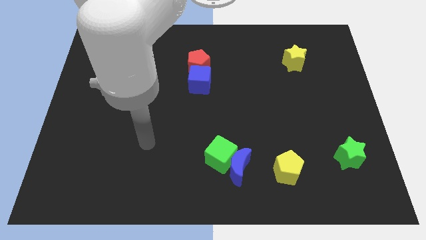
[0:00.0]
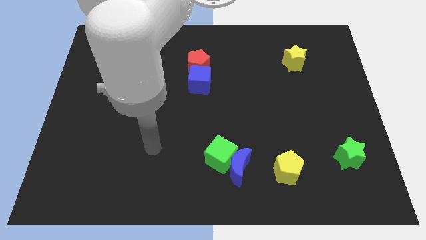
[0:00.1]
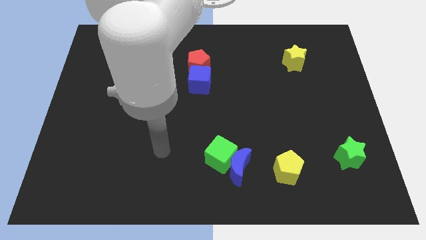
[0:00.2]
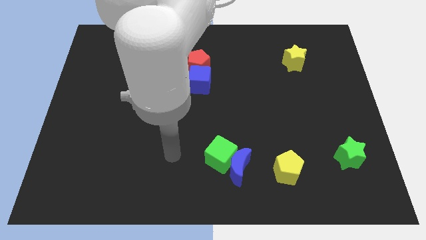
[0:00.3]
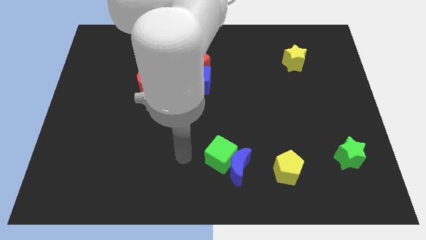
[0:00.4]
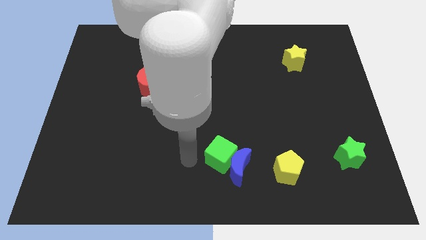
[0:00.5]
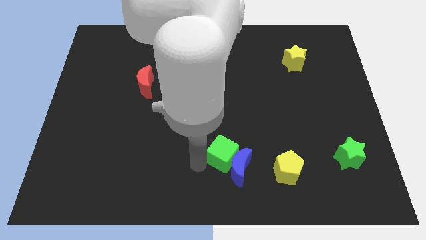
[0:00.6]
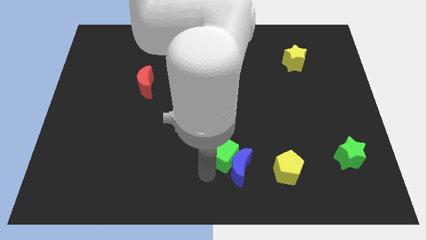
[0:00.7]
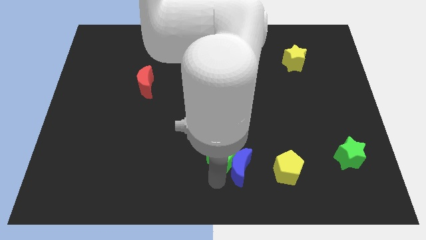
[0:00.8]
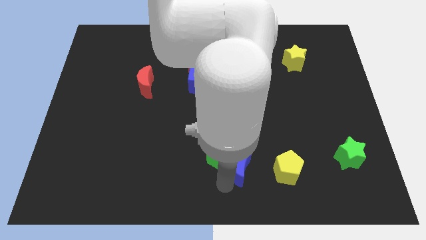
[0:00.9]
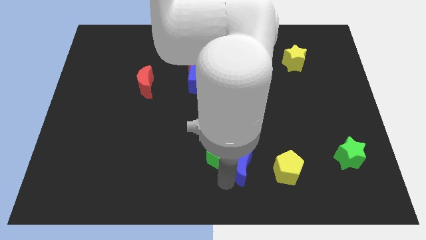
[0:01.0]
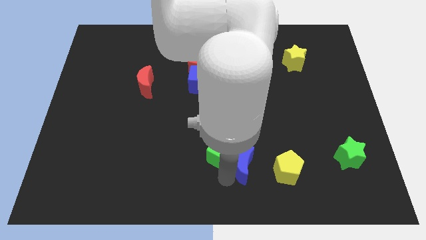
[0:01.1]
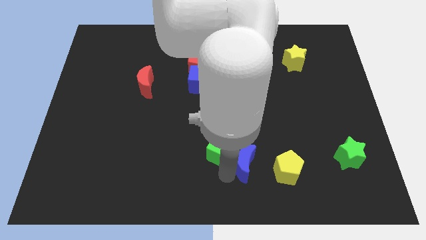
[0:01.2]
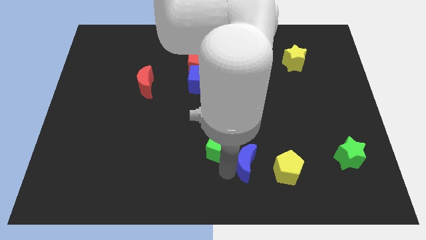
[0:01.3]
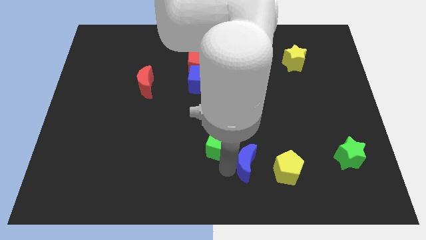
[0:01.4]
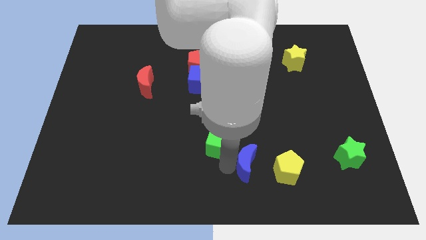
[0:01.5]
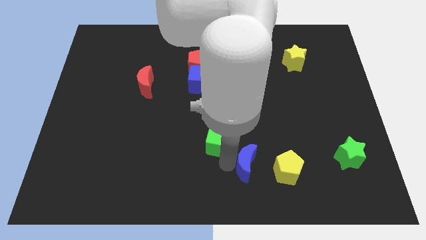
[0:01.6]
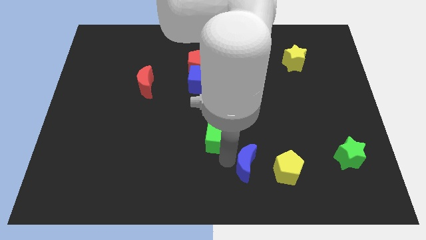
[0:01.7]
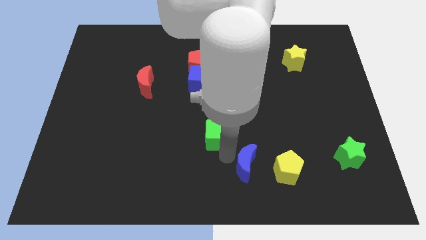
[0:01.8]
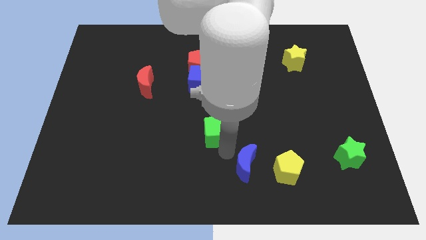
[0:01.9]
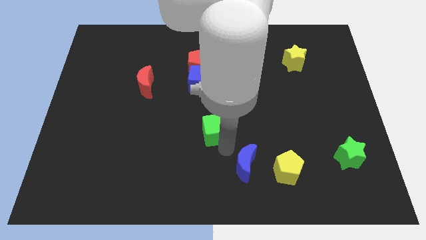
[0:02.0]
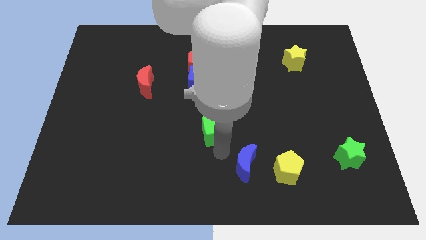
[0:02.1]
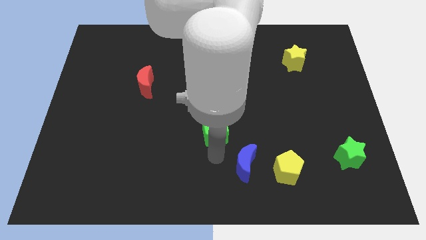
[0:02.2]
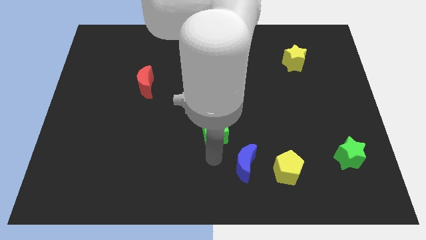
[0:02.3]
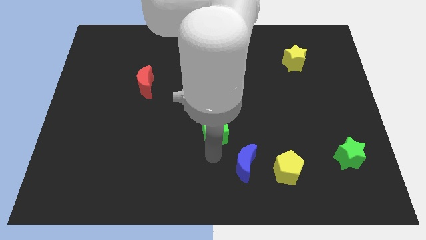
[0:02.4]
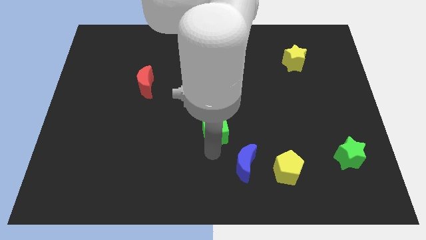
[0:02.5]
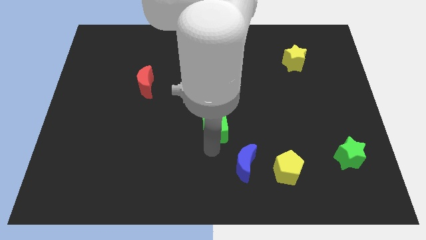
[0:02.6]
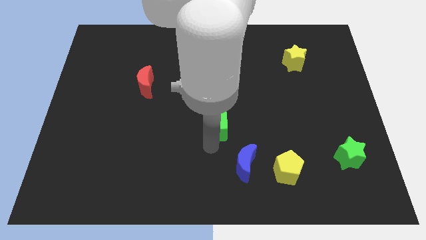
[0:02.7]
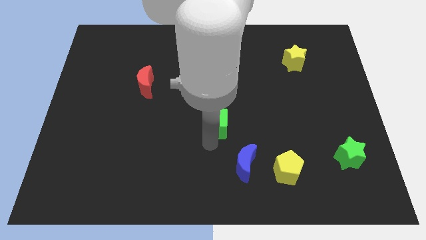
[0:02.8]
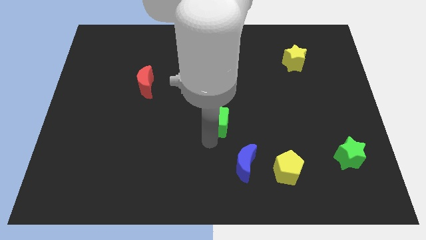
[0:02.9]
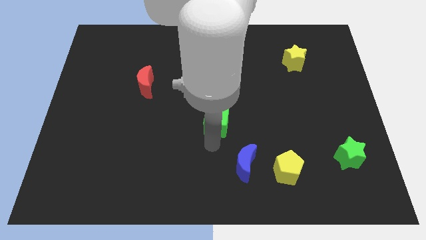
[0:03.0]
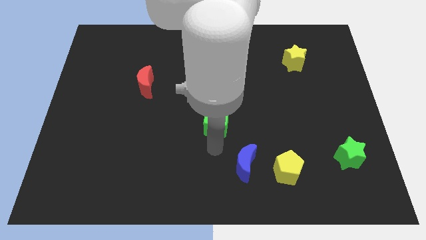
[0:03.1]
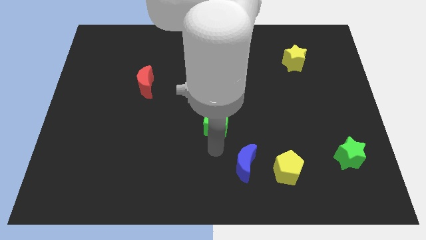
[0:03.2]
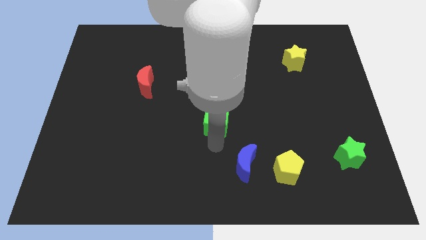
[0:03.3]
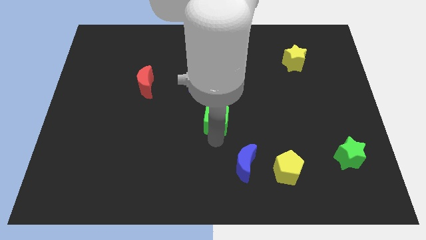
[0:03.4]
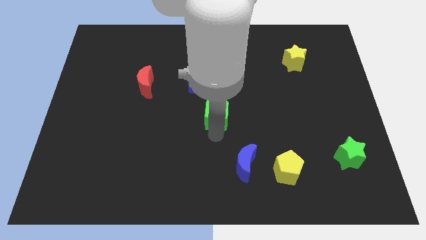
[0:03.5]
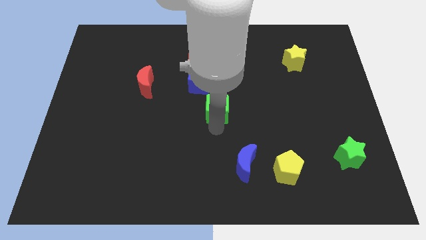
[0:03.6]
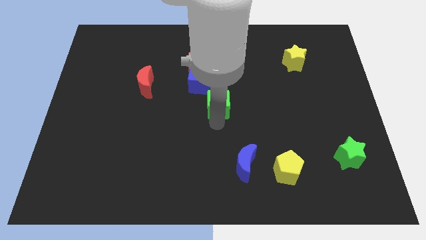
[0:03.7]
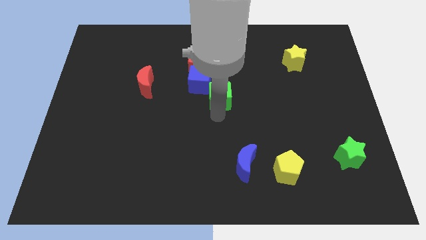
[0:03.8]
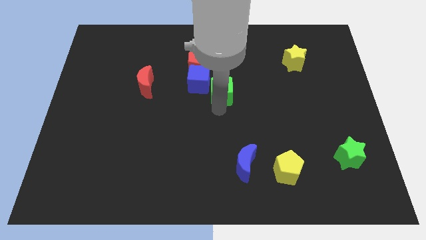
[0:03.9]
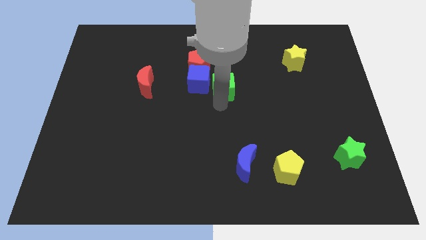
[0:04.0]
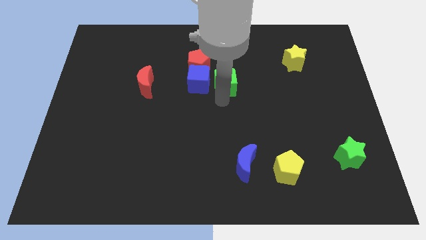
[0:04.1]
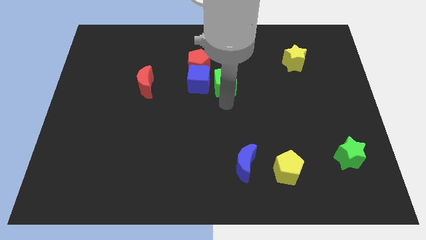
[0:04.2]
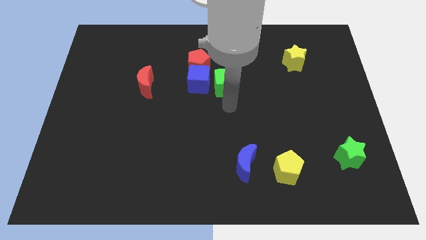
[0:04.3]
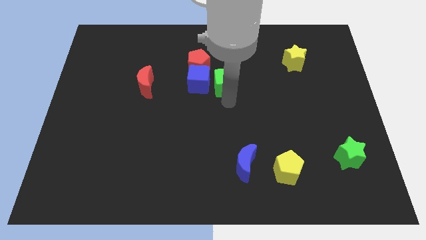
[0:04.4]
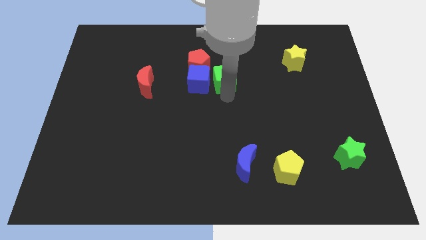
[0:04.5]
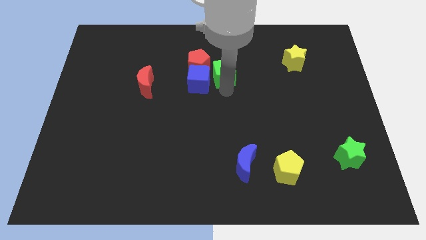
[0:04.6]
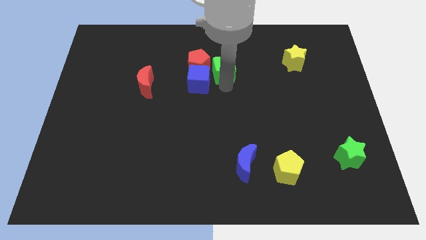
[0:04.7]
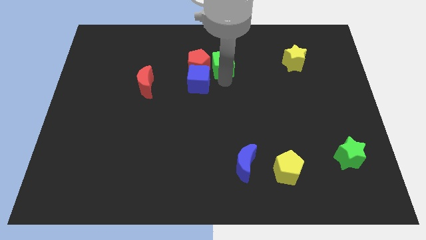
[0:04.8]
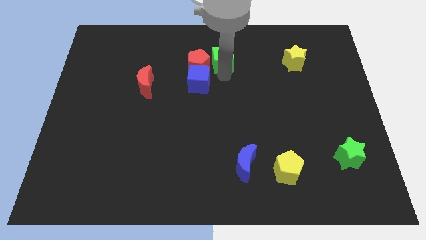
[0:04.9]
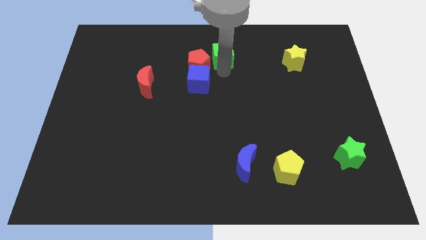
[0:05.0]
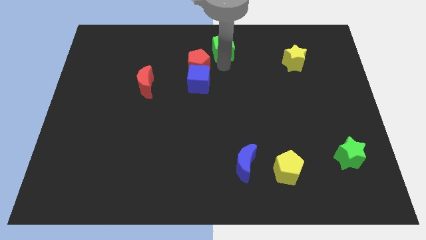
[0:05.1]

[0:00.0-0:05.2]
put the green cube to the towards your base

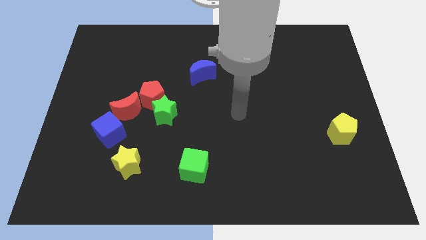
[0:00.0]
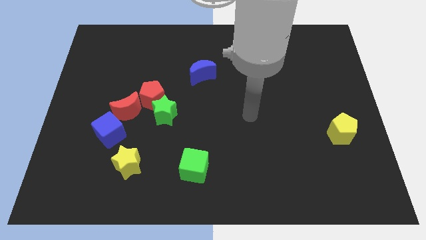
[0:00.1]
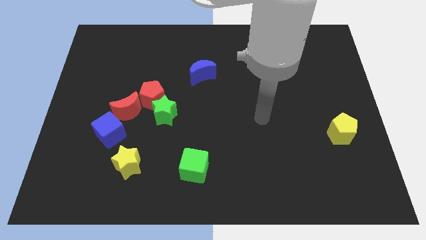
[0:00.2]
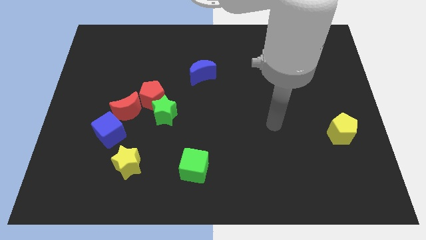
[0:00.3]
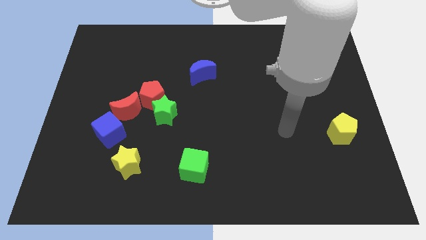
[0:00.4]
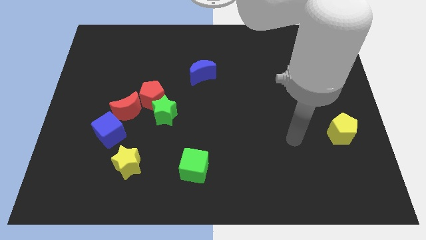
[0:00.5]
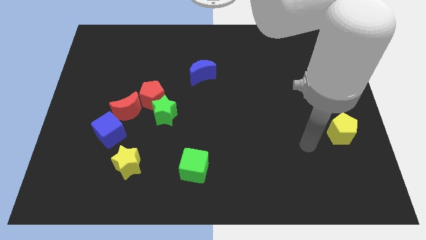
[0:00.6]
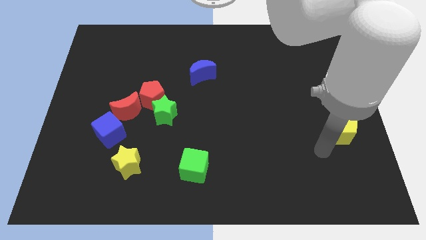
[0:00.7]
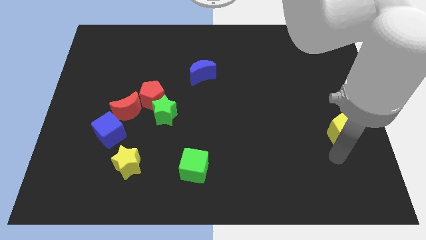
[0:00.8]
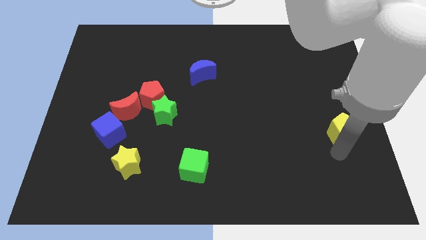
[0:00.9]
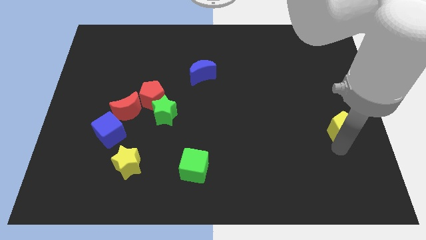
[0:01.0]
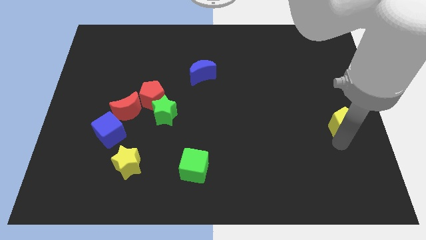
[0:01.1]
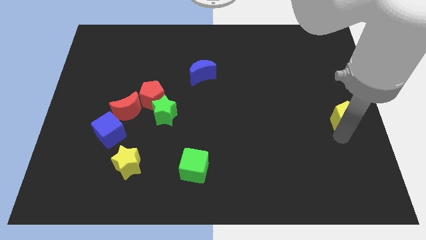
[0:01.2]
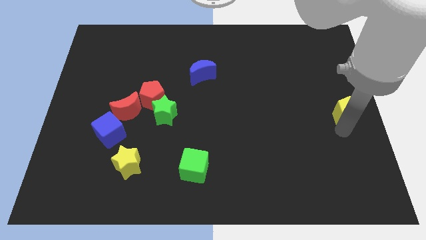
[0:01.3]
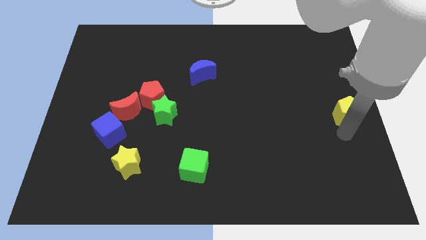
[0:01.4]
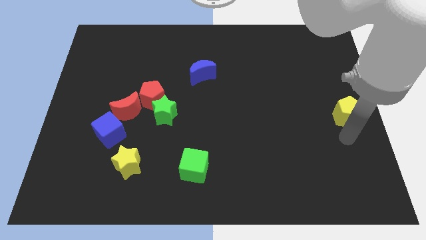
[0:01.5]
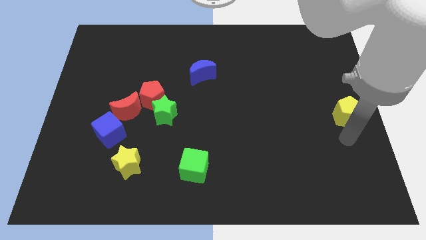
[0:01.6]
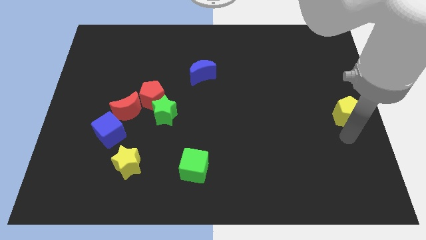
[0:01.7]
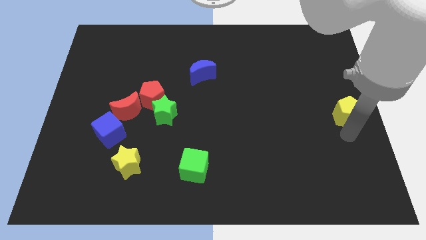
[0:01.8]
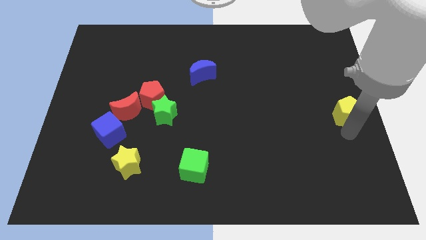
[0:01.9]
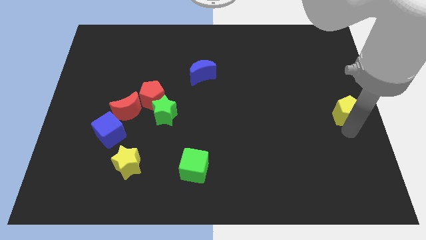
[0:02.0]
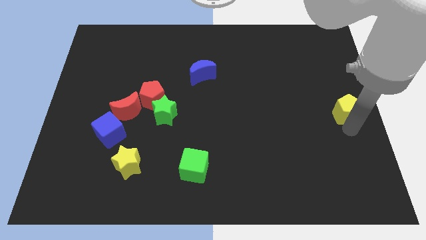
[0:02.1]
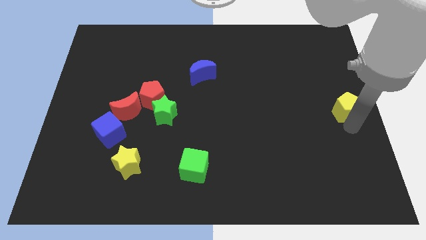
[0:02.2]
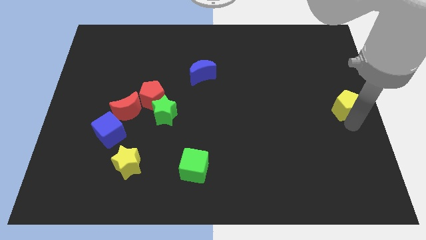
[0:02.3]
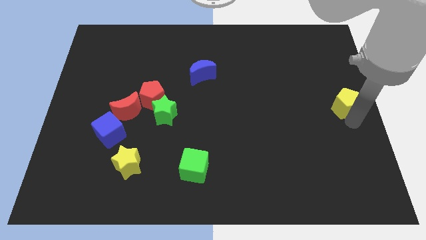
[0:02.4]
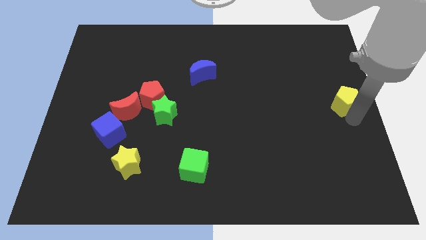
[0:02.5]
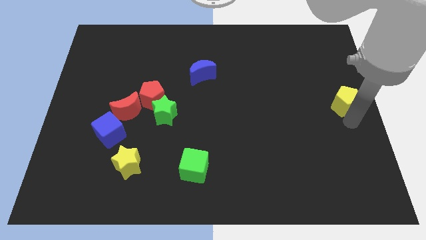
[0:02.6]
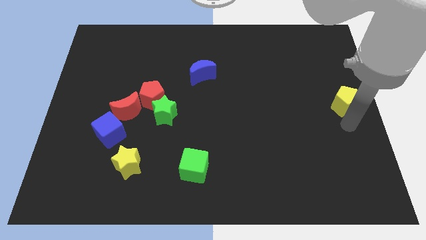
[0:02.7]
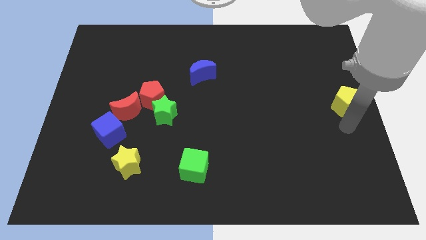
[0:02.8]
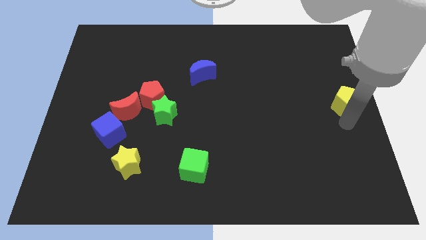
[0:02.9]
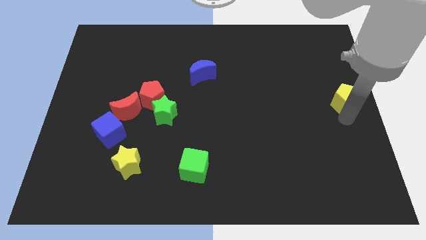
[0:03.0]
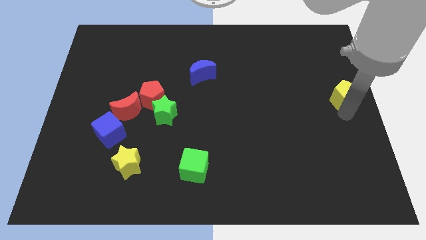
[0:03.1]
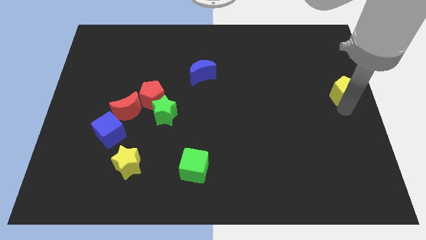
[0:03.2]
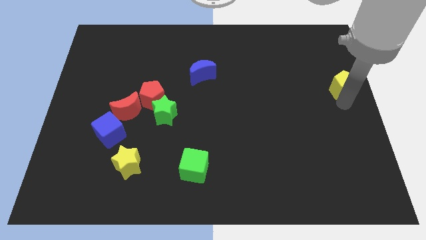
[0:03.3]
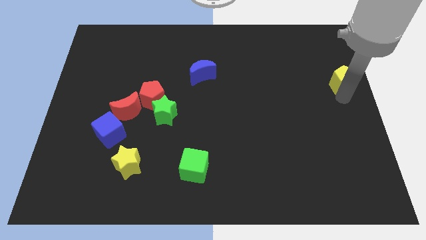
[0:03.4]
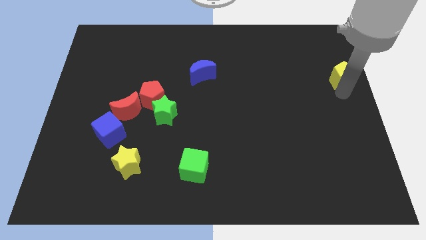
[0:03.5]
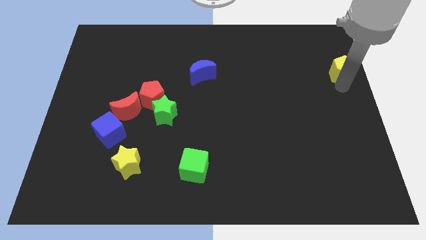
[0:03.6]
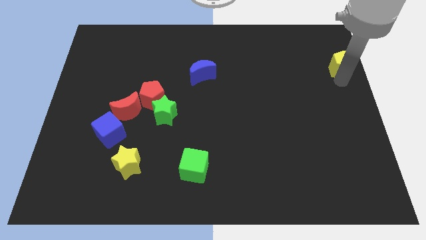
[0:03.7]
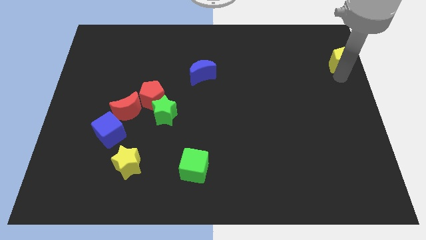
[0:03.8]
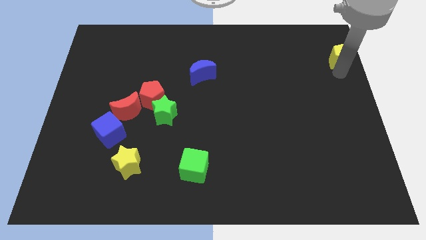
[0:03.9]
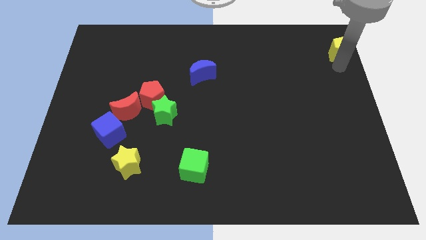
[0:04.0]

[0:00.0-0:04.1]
push the yellow pentagon to the upper right corner
